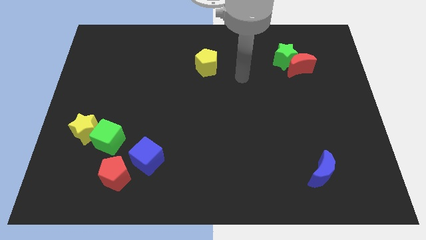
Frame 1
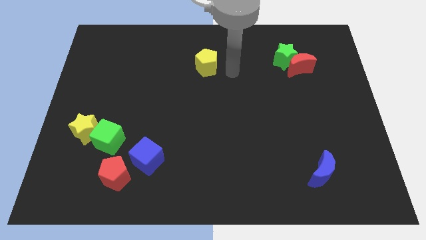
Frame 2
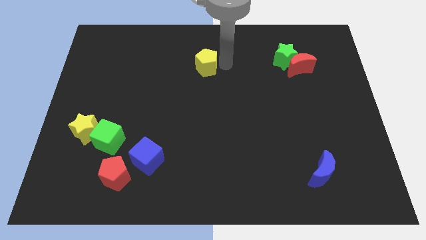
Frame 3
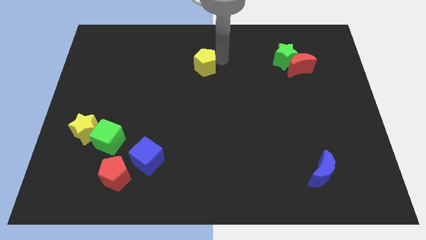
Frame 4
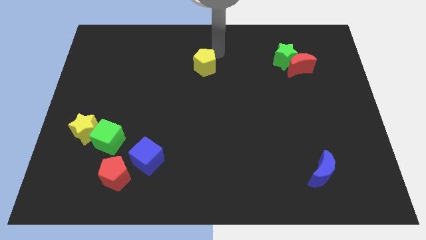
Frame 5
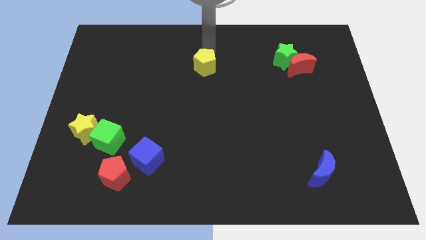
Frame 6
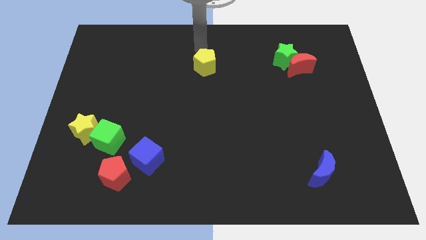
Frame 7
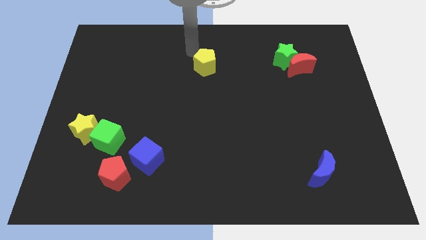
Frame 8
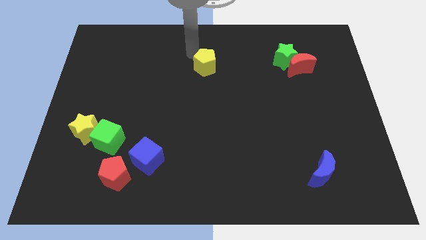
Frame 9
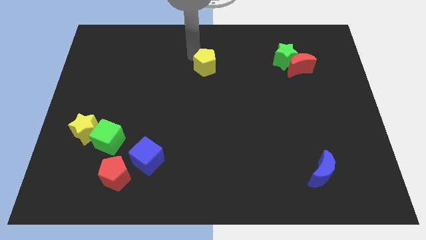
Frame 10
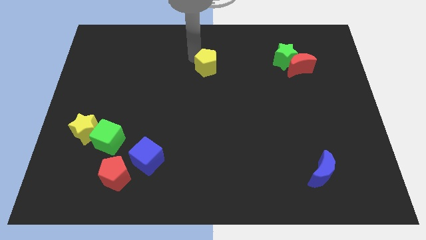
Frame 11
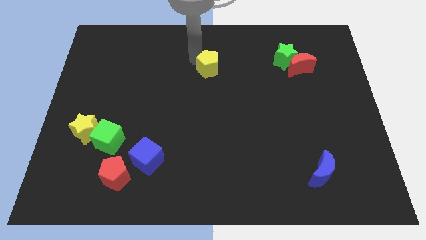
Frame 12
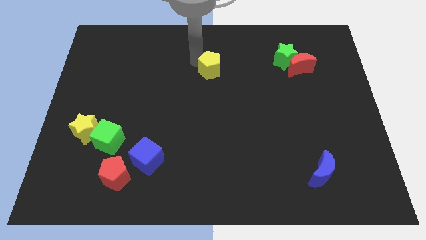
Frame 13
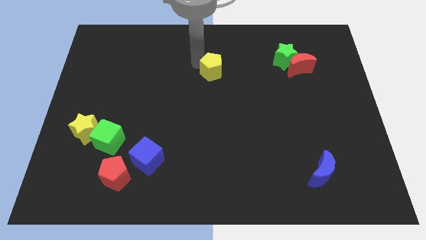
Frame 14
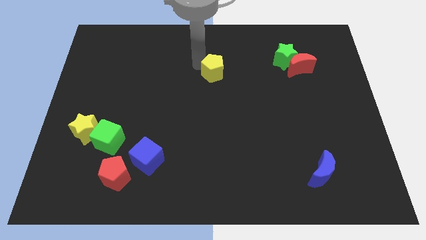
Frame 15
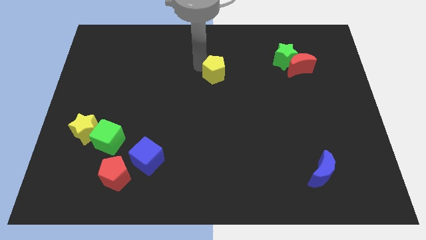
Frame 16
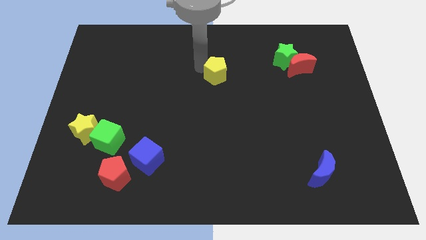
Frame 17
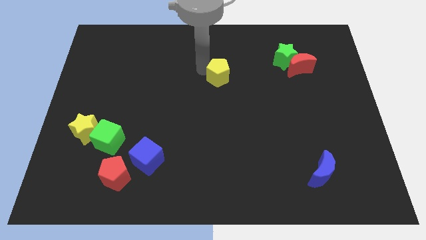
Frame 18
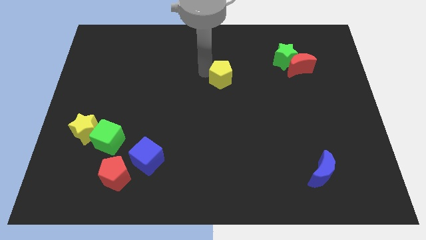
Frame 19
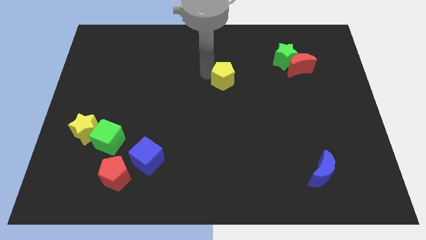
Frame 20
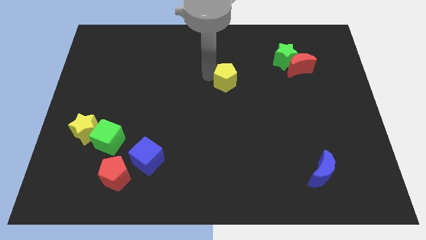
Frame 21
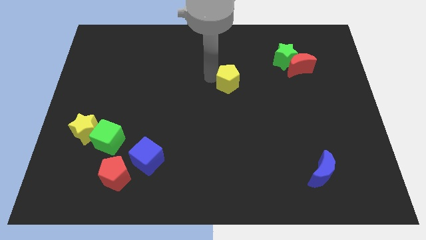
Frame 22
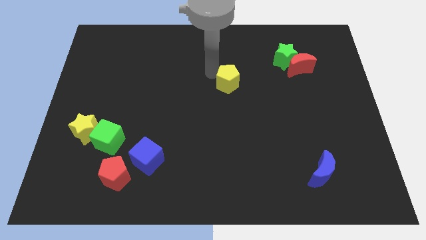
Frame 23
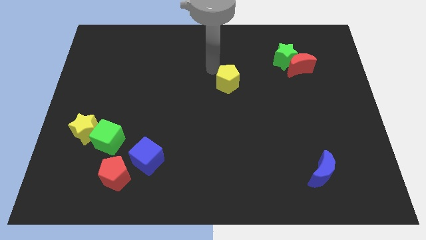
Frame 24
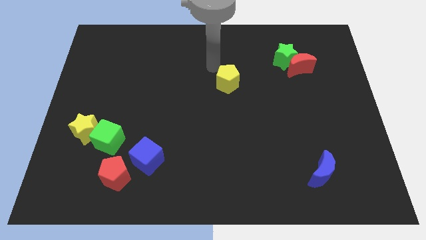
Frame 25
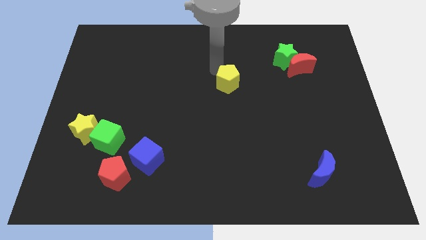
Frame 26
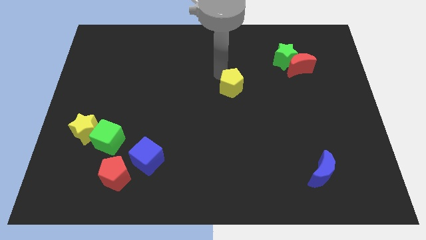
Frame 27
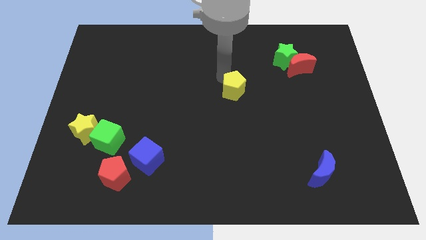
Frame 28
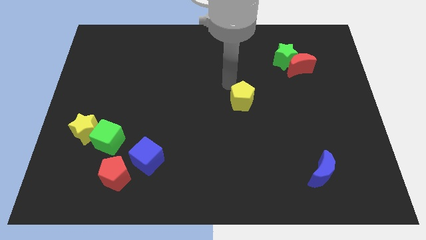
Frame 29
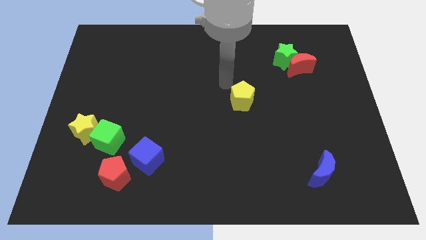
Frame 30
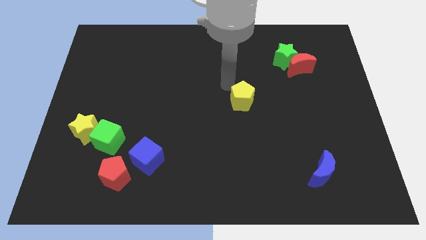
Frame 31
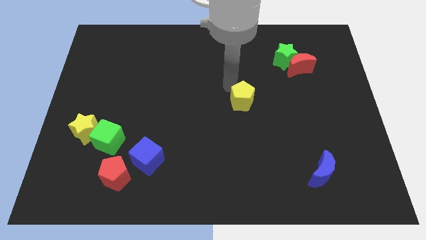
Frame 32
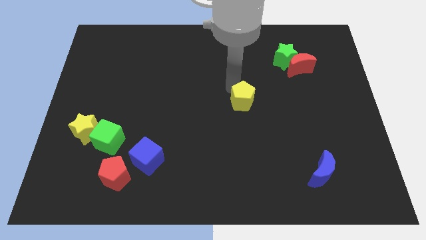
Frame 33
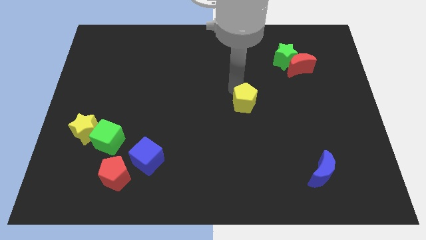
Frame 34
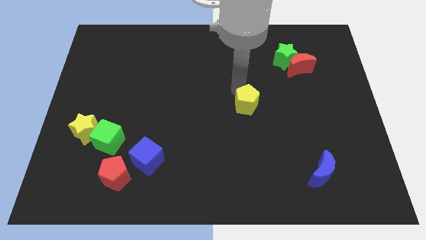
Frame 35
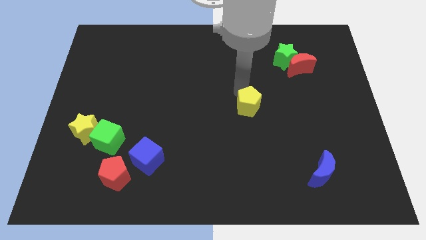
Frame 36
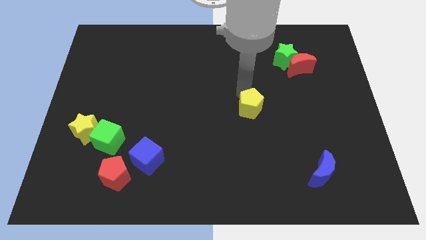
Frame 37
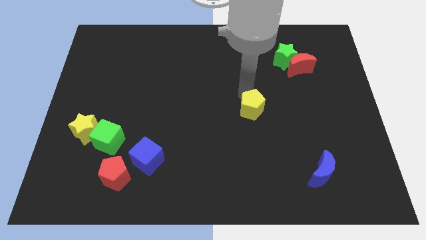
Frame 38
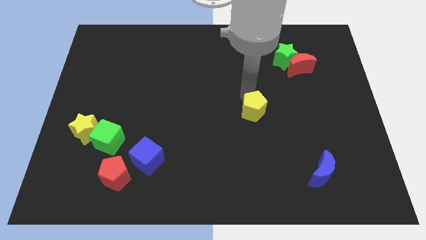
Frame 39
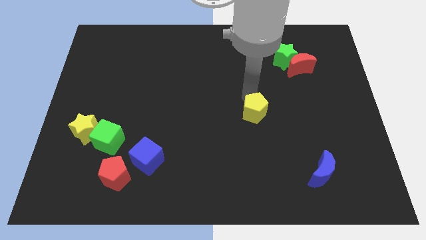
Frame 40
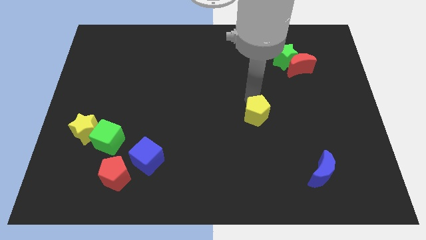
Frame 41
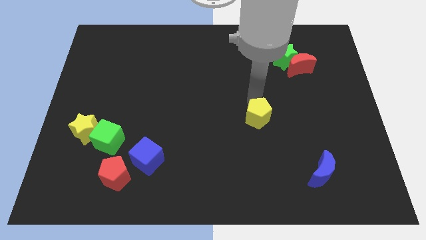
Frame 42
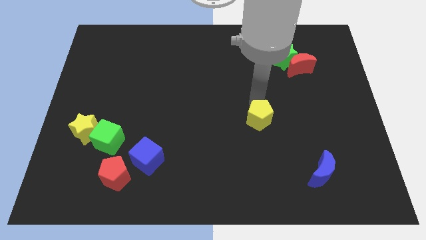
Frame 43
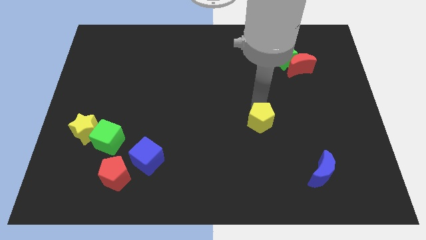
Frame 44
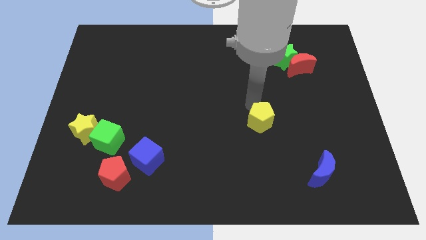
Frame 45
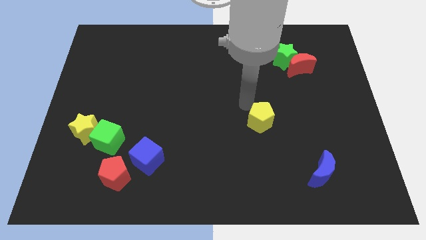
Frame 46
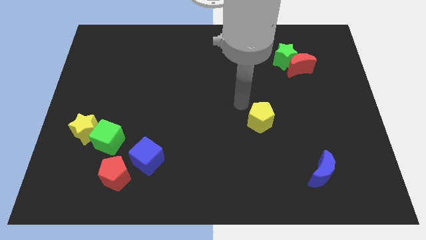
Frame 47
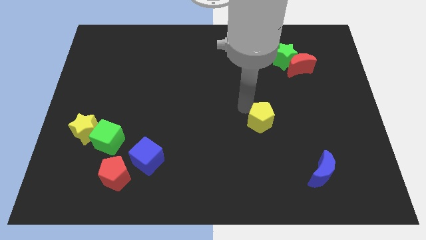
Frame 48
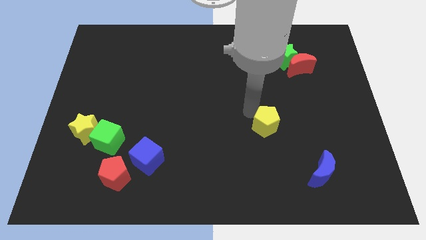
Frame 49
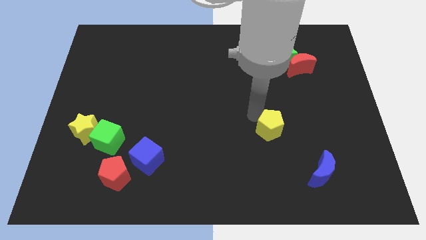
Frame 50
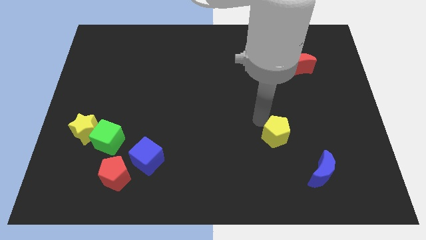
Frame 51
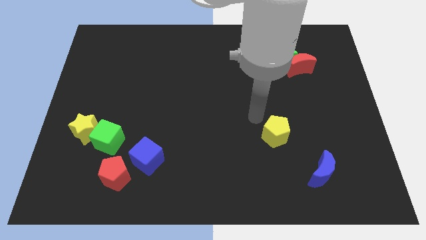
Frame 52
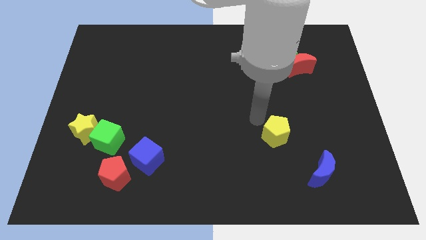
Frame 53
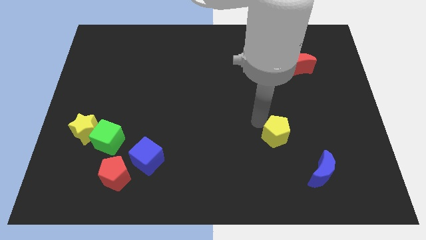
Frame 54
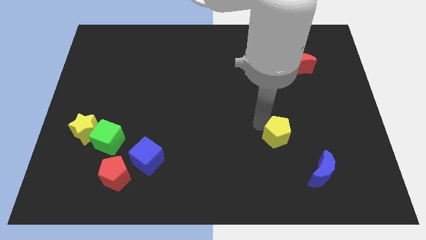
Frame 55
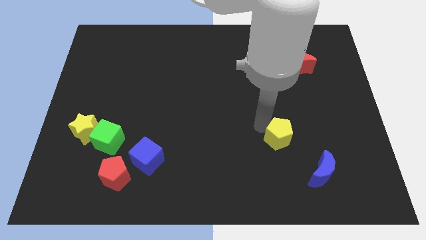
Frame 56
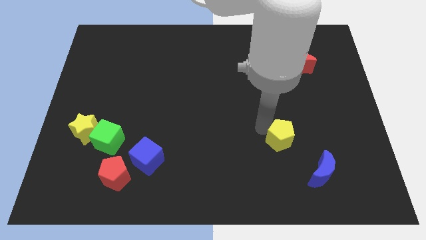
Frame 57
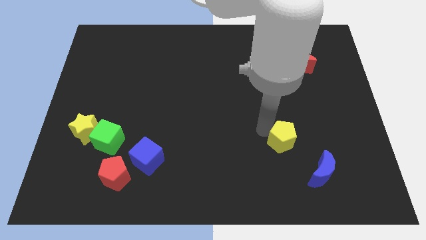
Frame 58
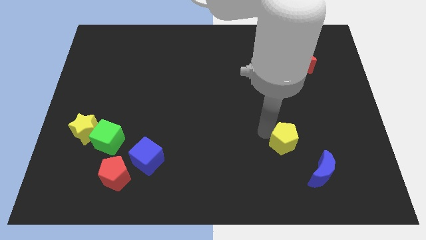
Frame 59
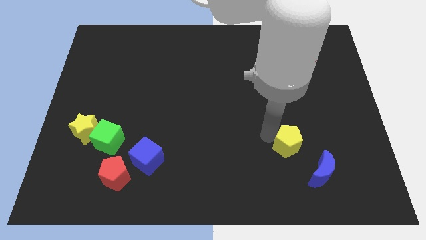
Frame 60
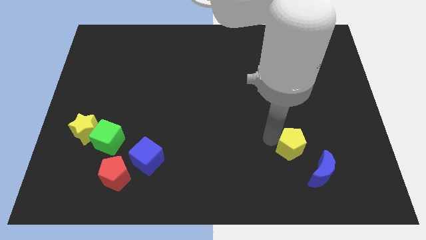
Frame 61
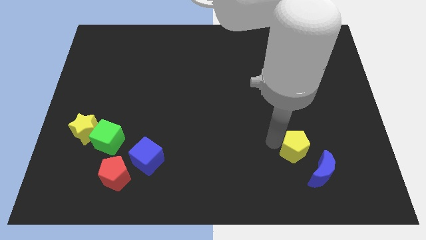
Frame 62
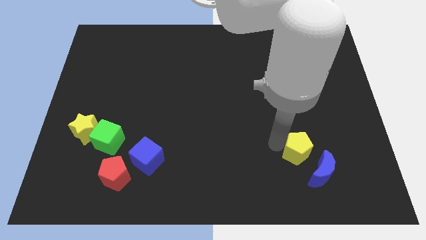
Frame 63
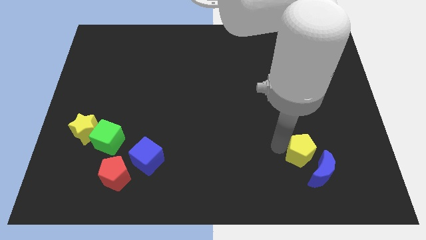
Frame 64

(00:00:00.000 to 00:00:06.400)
push the yellow pentagon next to the blue moon

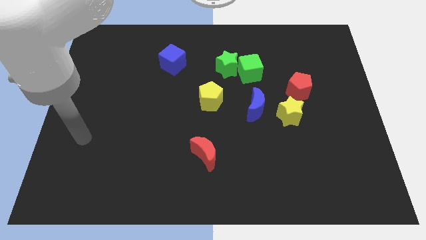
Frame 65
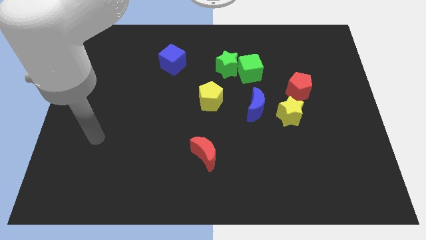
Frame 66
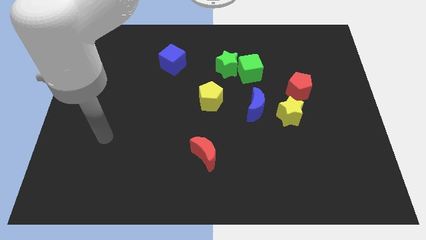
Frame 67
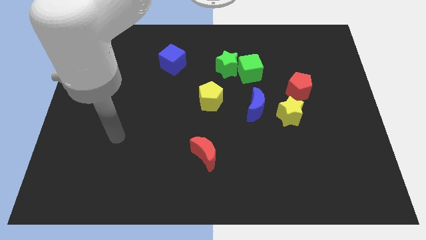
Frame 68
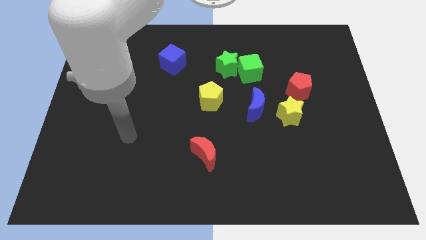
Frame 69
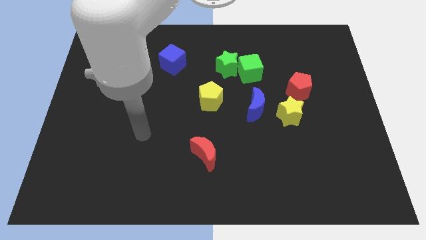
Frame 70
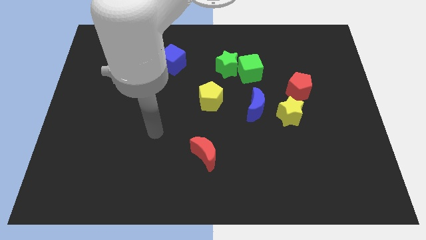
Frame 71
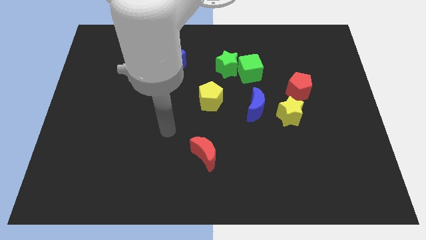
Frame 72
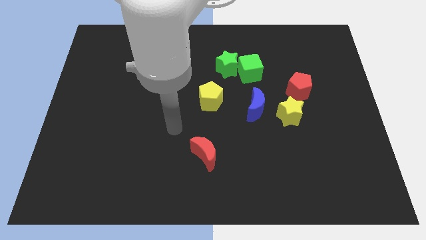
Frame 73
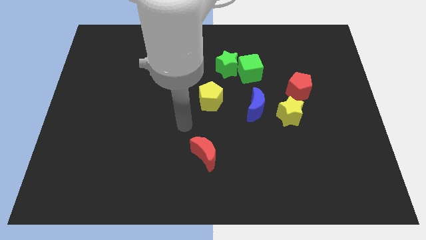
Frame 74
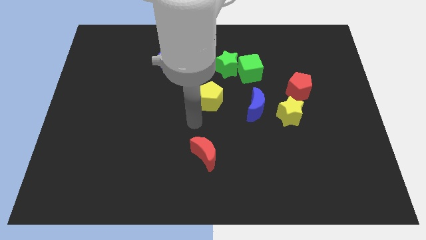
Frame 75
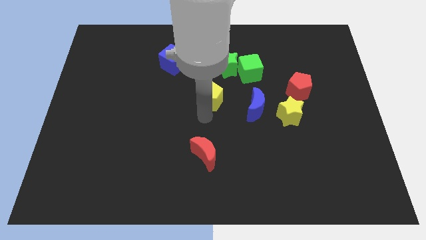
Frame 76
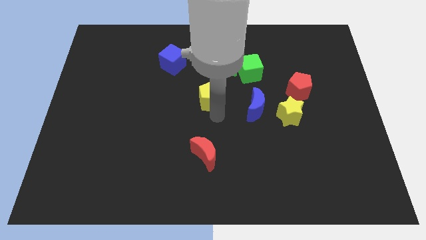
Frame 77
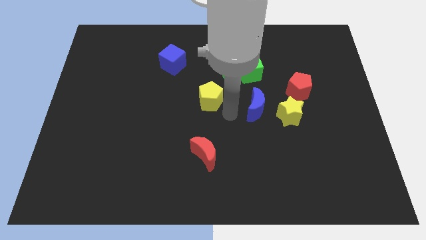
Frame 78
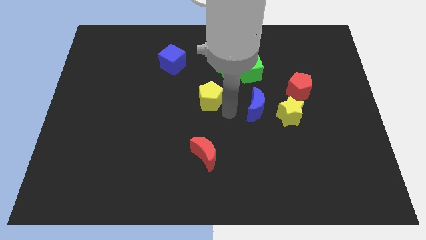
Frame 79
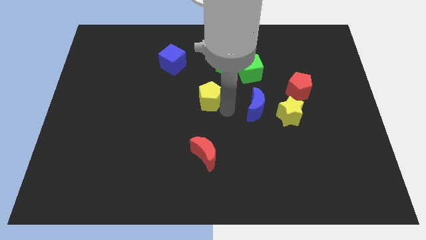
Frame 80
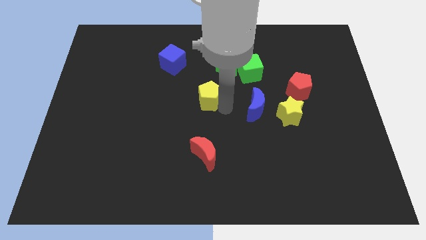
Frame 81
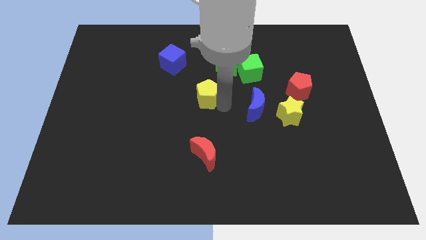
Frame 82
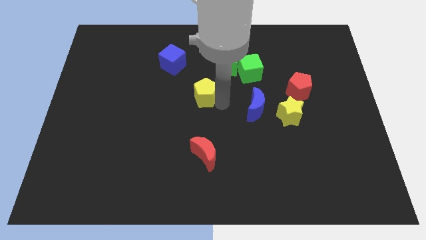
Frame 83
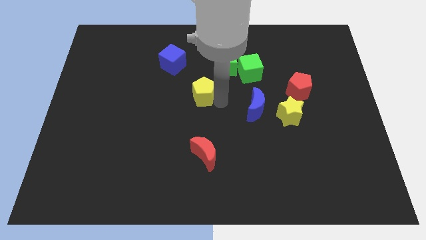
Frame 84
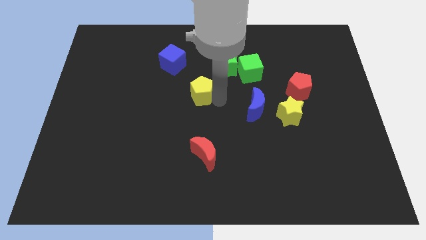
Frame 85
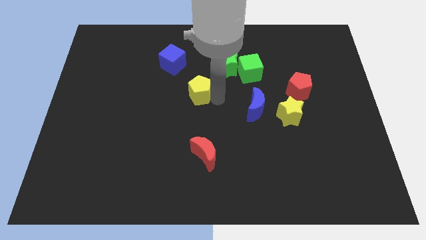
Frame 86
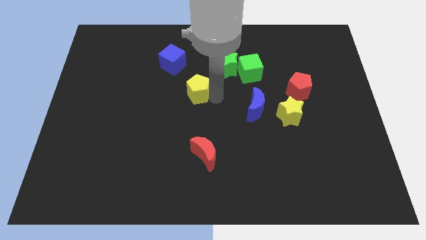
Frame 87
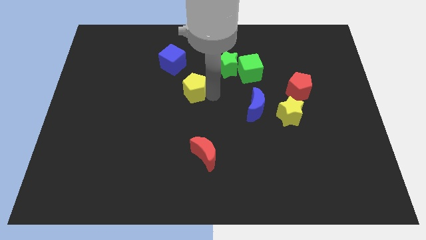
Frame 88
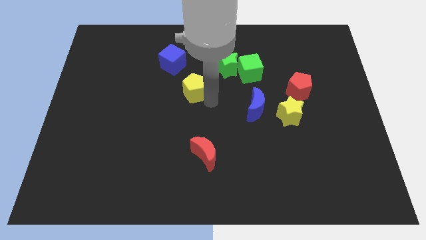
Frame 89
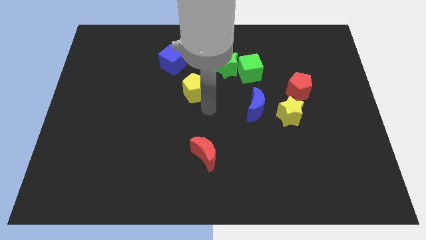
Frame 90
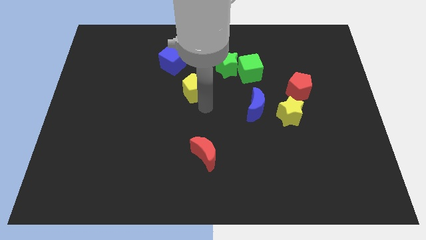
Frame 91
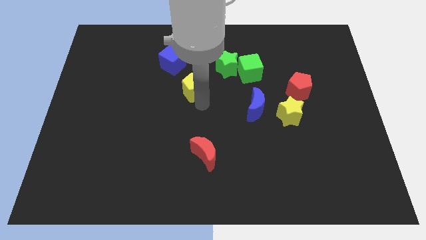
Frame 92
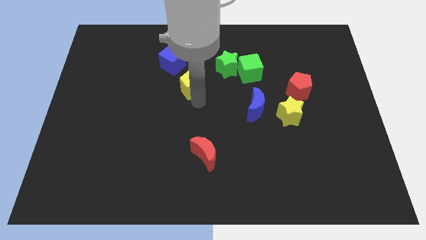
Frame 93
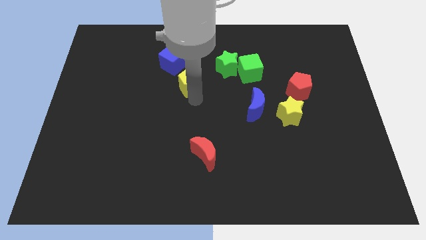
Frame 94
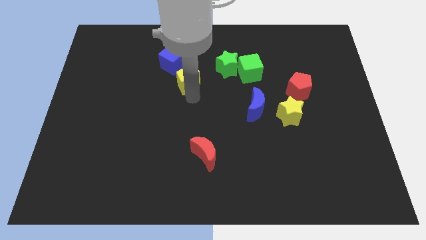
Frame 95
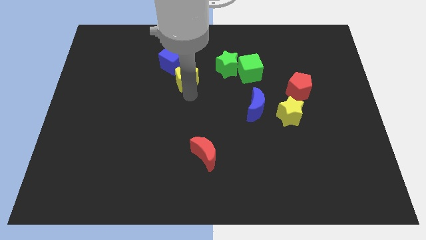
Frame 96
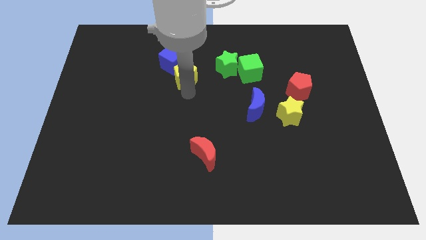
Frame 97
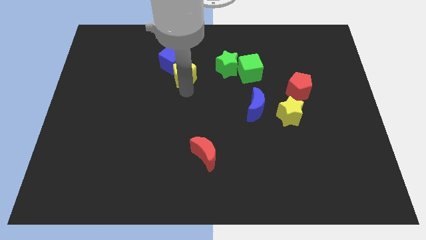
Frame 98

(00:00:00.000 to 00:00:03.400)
put the yellow pentagon to the blue cube
